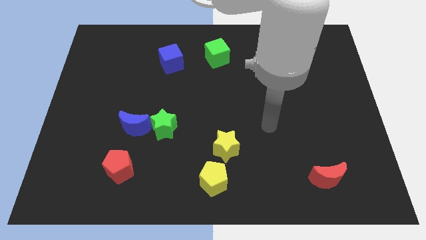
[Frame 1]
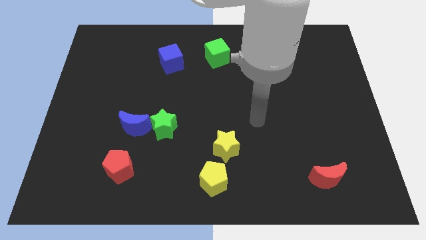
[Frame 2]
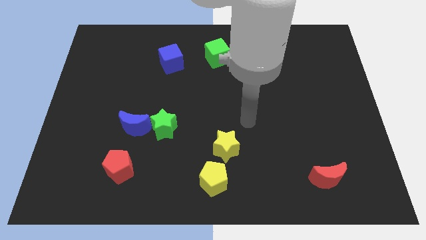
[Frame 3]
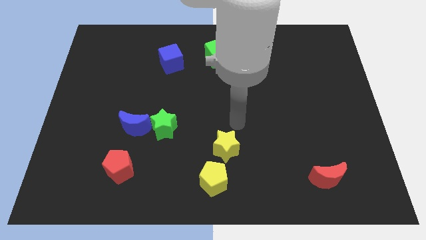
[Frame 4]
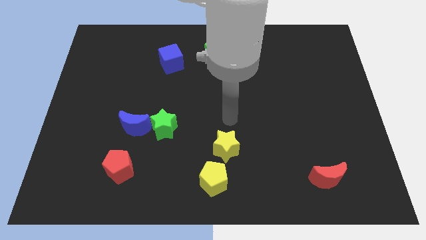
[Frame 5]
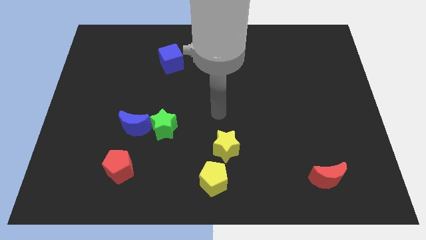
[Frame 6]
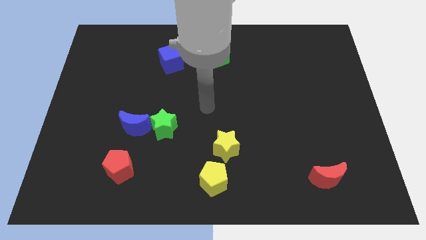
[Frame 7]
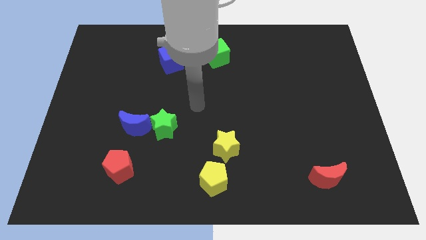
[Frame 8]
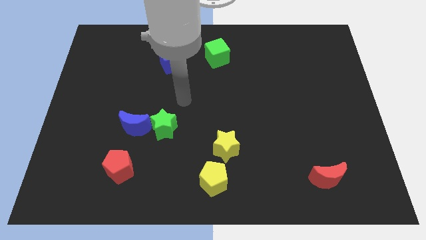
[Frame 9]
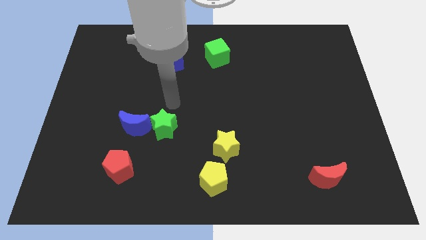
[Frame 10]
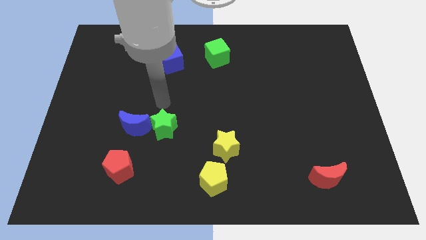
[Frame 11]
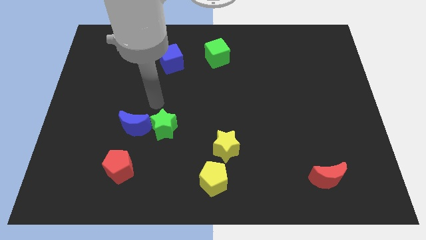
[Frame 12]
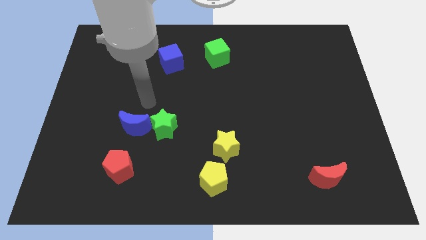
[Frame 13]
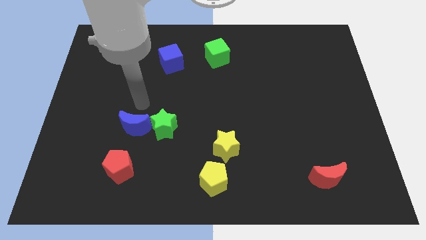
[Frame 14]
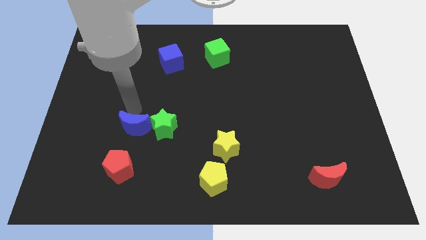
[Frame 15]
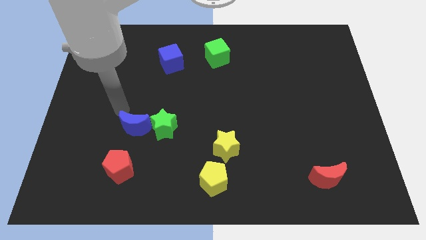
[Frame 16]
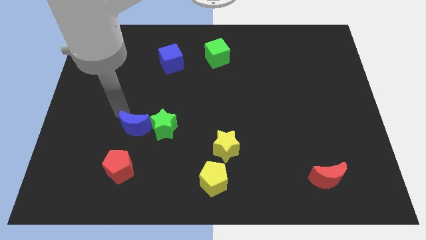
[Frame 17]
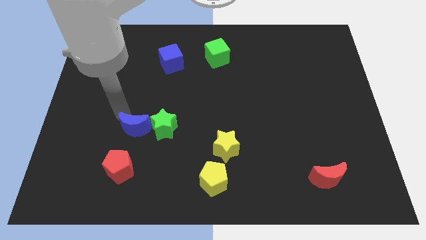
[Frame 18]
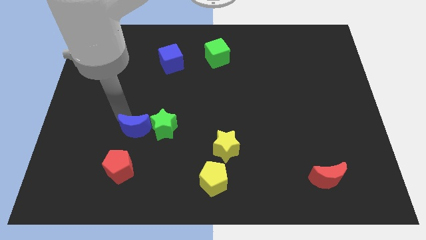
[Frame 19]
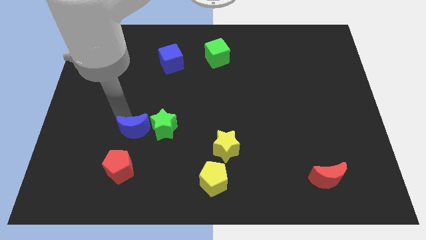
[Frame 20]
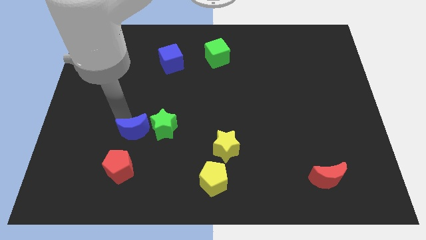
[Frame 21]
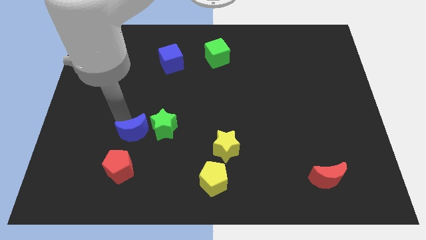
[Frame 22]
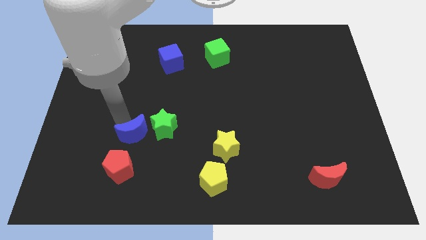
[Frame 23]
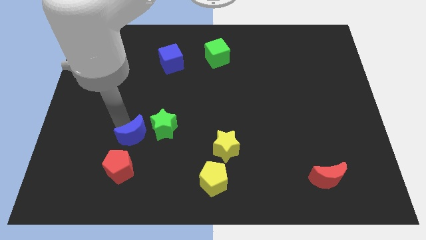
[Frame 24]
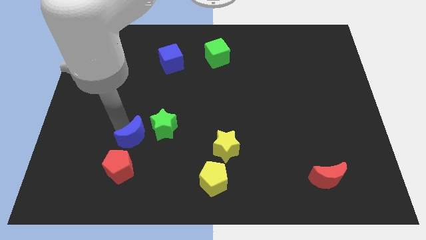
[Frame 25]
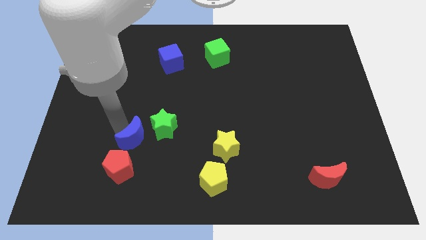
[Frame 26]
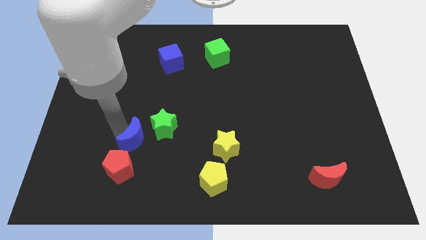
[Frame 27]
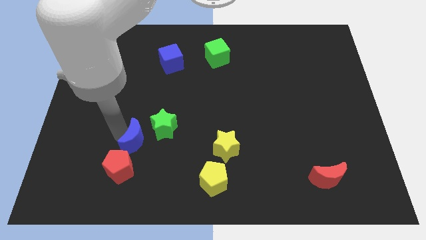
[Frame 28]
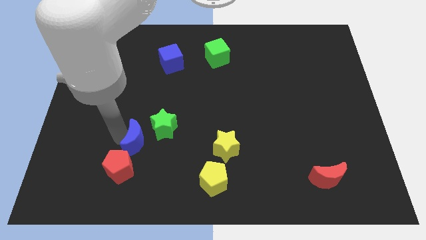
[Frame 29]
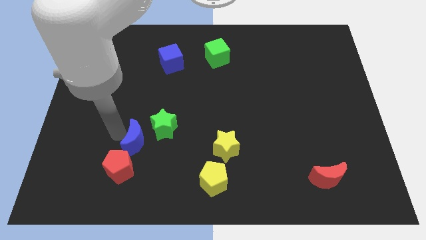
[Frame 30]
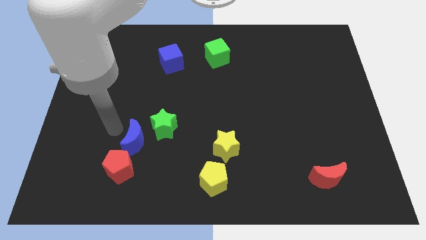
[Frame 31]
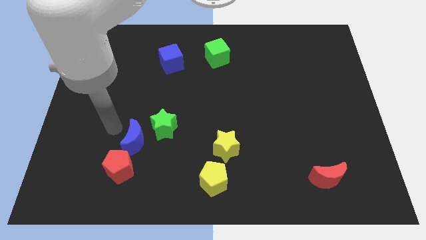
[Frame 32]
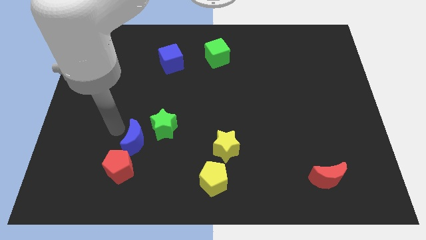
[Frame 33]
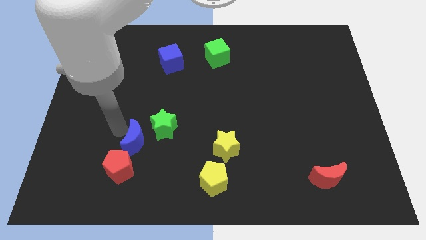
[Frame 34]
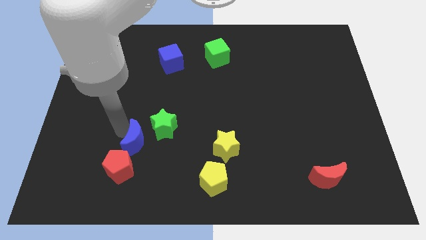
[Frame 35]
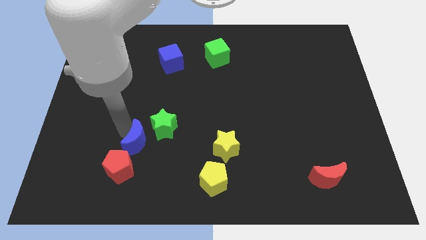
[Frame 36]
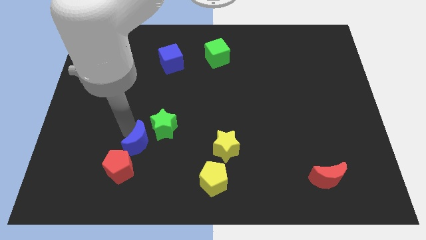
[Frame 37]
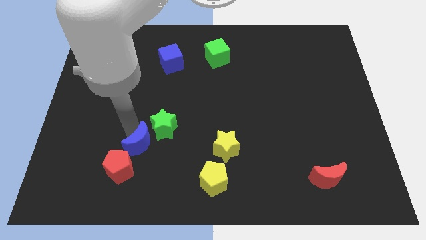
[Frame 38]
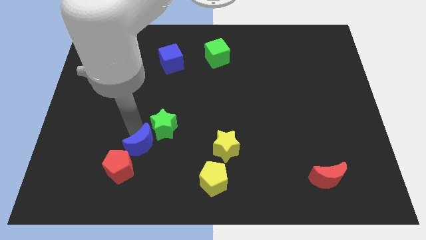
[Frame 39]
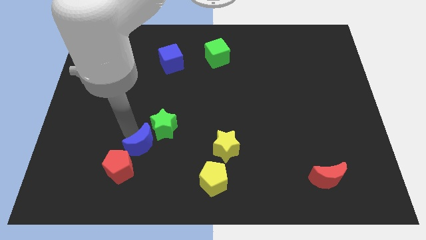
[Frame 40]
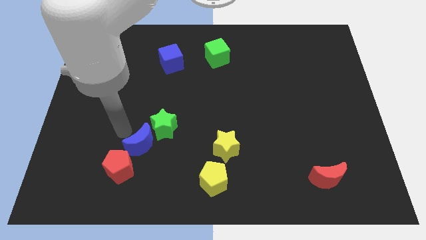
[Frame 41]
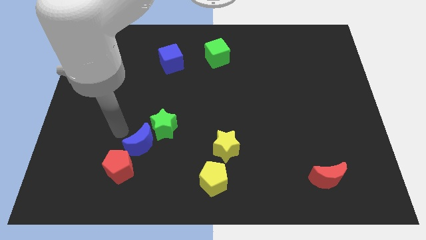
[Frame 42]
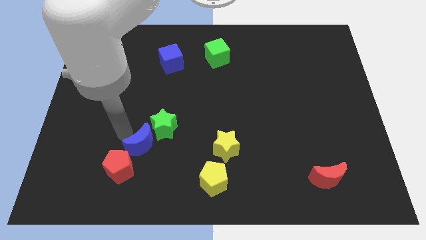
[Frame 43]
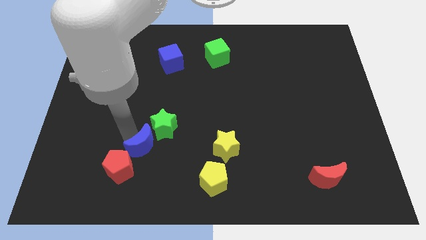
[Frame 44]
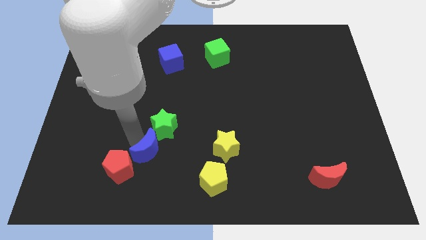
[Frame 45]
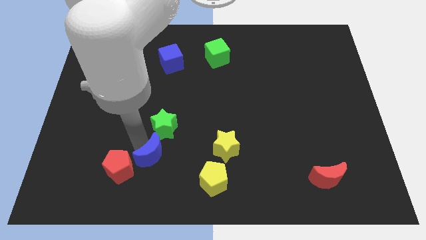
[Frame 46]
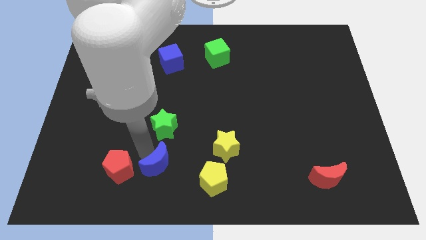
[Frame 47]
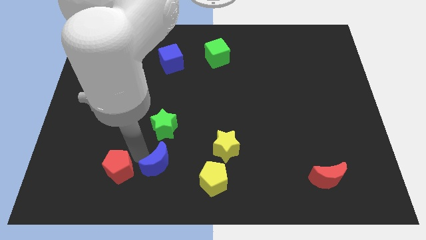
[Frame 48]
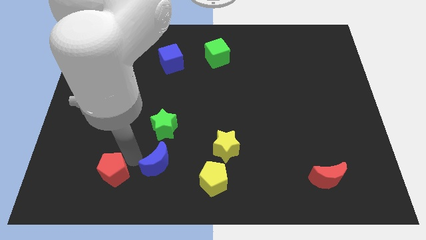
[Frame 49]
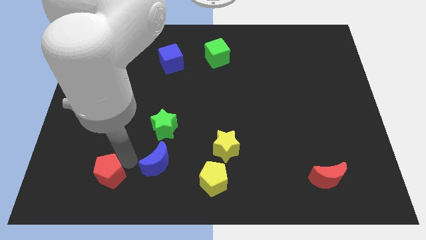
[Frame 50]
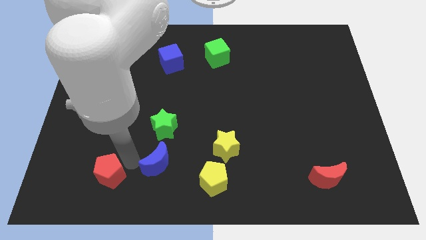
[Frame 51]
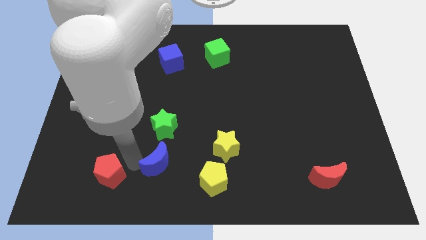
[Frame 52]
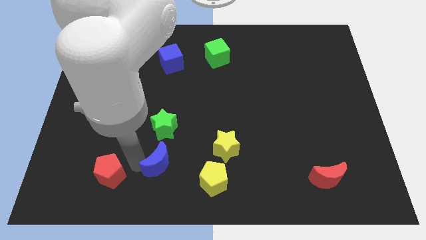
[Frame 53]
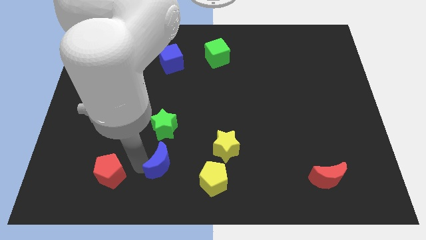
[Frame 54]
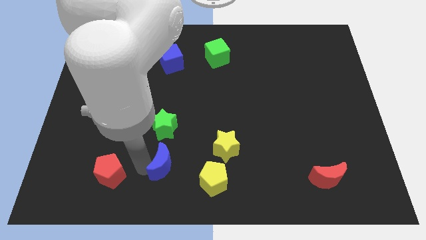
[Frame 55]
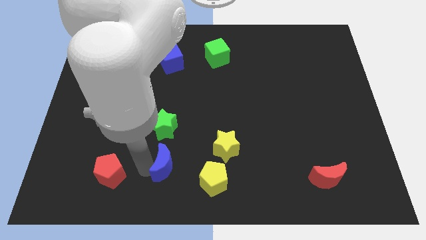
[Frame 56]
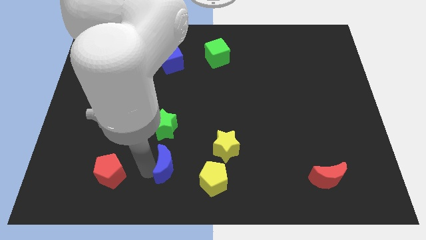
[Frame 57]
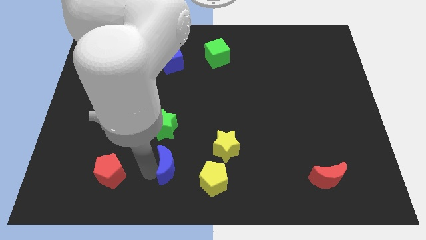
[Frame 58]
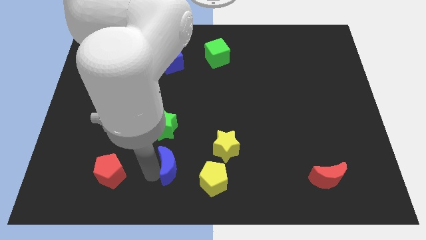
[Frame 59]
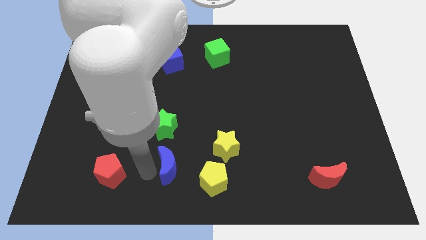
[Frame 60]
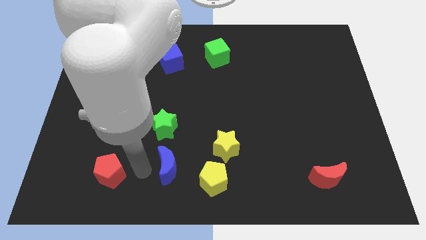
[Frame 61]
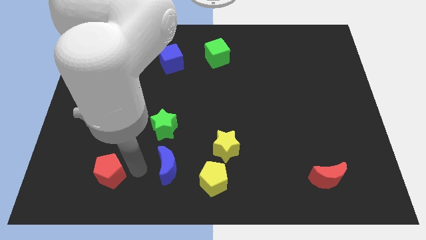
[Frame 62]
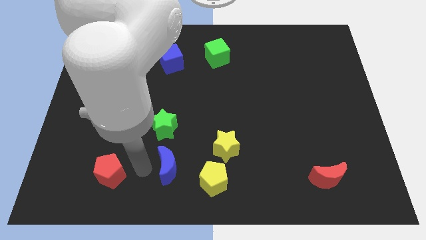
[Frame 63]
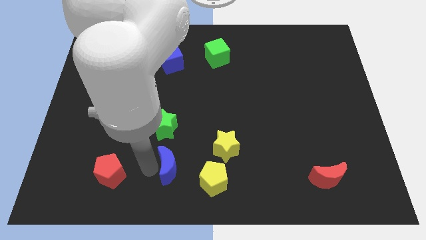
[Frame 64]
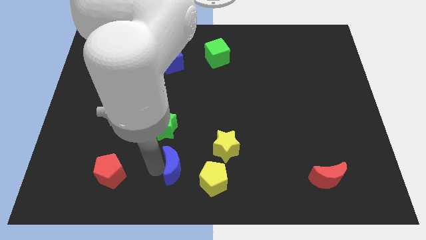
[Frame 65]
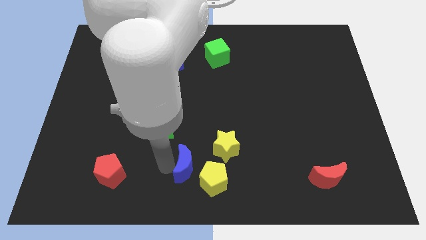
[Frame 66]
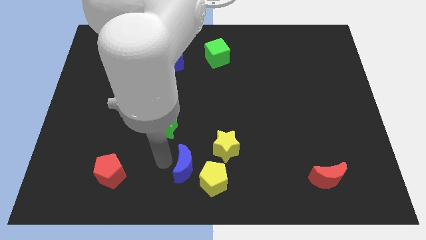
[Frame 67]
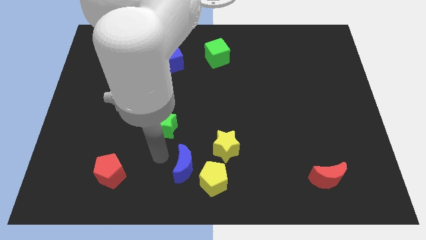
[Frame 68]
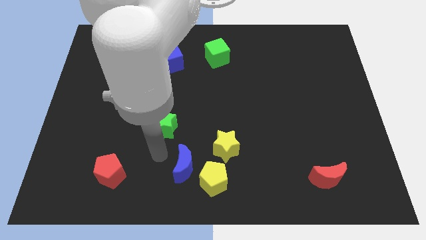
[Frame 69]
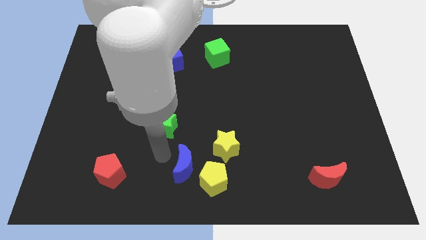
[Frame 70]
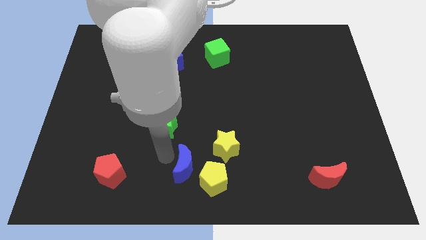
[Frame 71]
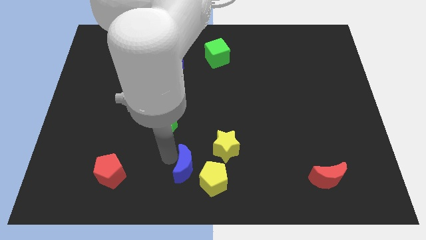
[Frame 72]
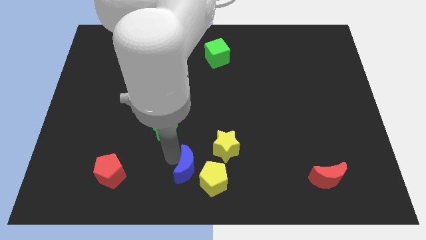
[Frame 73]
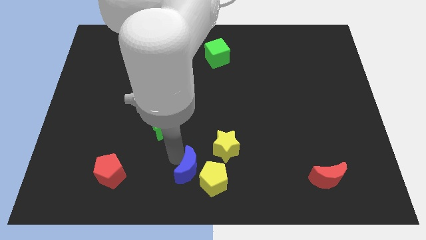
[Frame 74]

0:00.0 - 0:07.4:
slide the blue moon to the yellow pentagon
